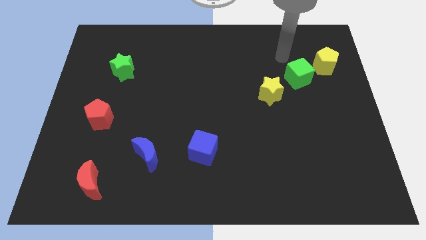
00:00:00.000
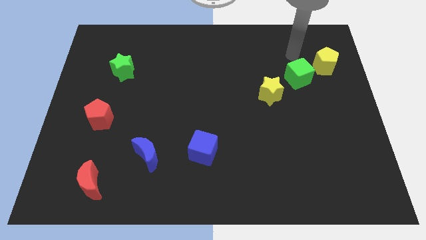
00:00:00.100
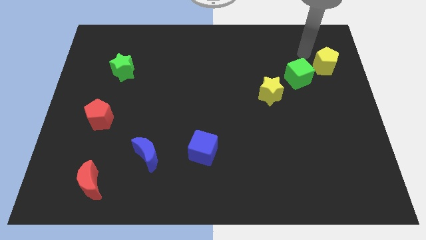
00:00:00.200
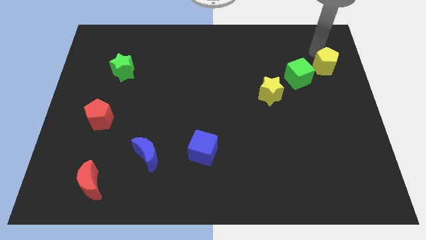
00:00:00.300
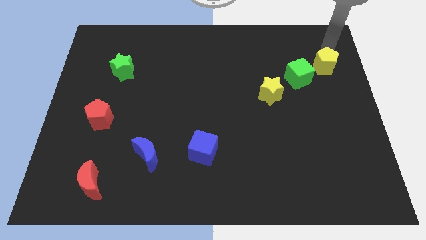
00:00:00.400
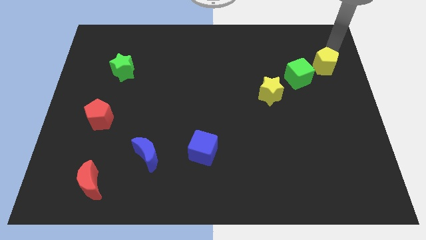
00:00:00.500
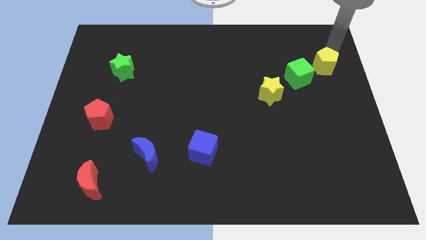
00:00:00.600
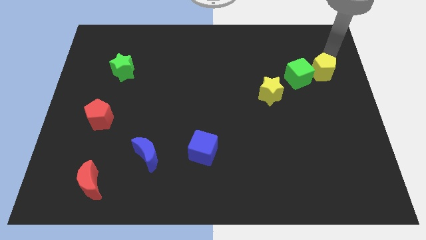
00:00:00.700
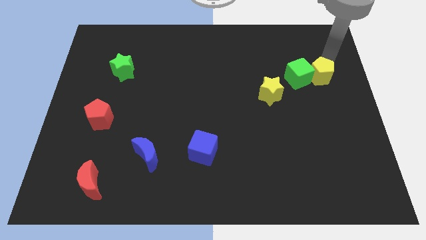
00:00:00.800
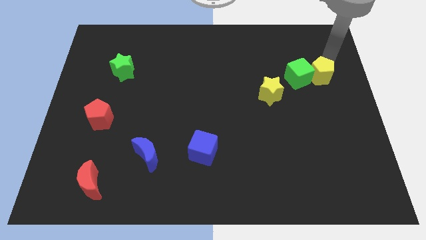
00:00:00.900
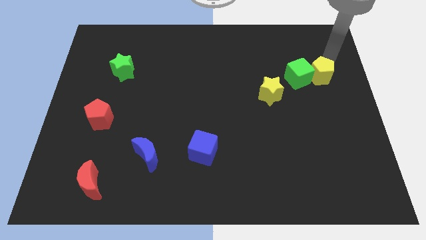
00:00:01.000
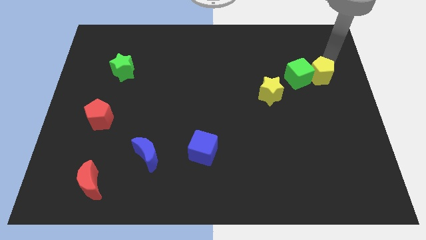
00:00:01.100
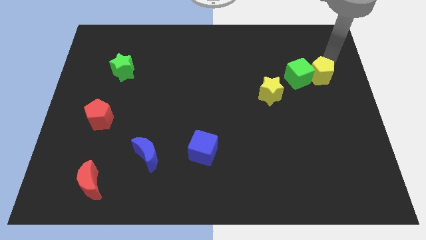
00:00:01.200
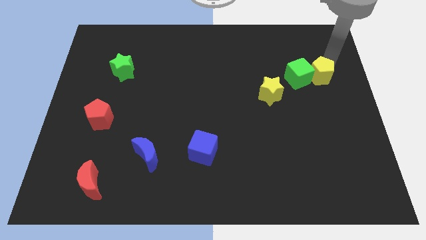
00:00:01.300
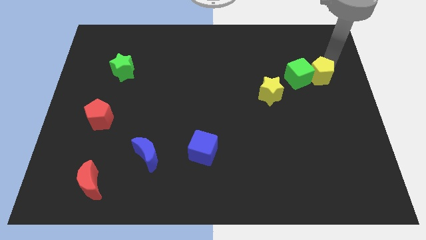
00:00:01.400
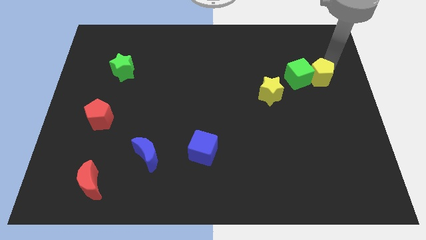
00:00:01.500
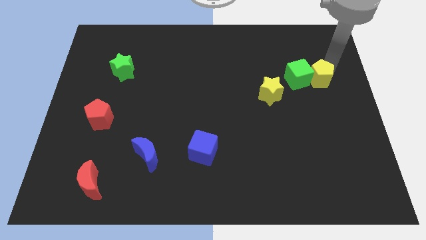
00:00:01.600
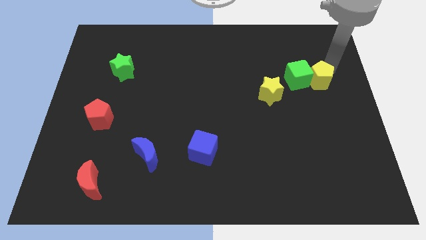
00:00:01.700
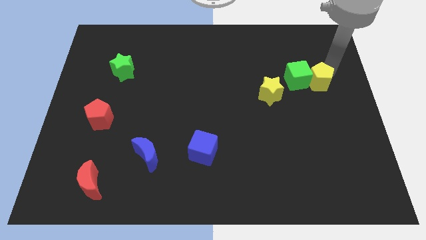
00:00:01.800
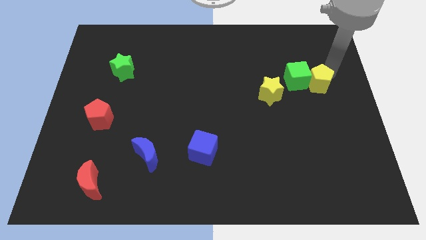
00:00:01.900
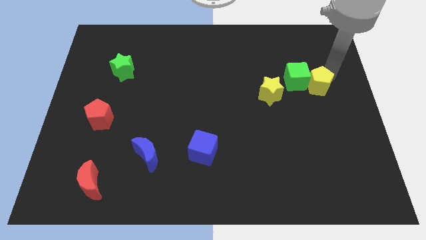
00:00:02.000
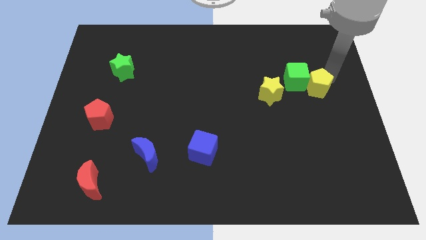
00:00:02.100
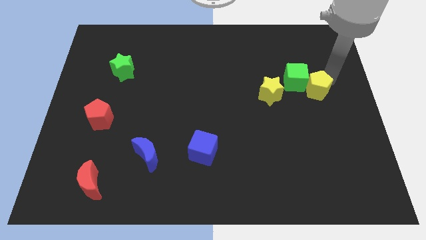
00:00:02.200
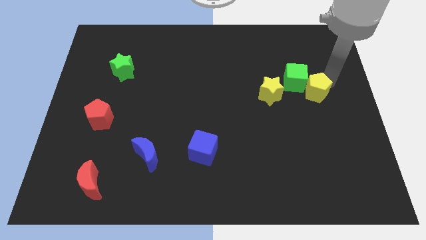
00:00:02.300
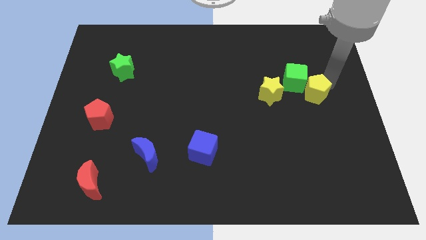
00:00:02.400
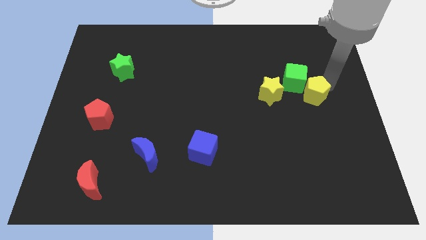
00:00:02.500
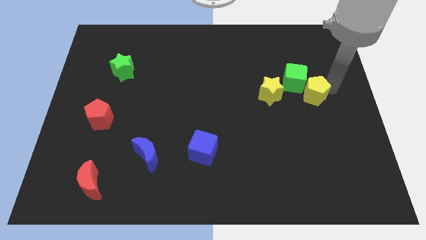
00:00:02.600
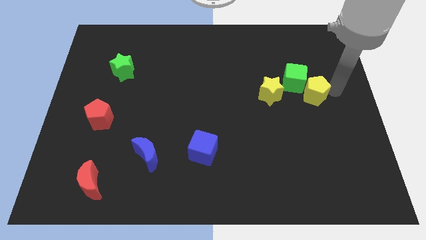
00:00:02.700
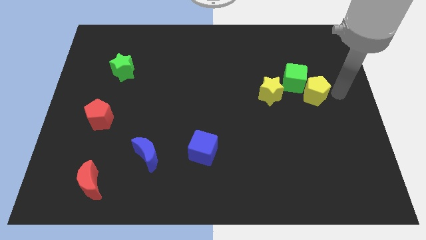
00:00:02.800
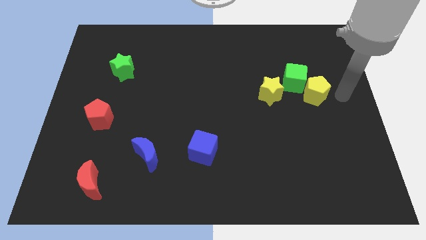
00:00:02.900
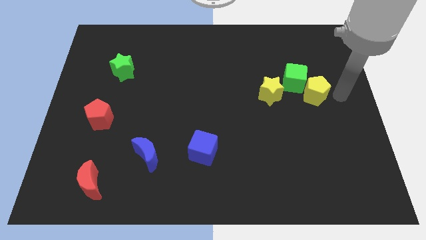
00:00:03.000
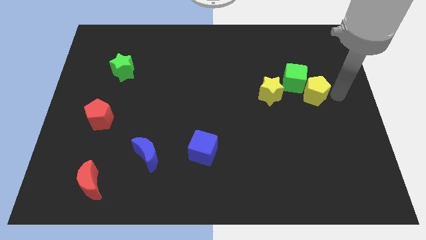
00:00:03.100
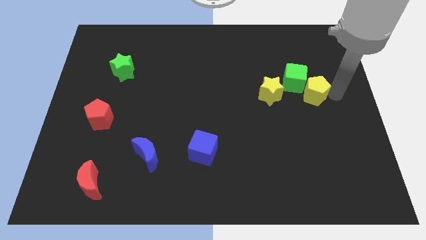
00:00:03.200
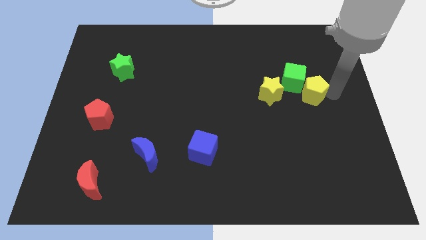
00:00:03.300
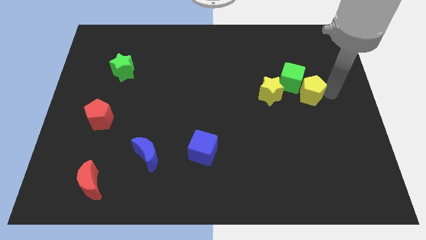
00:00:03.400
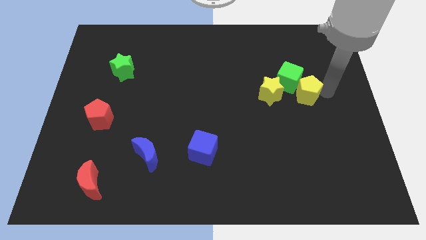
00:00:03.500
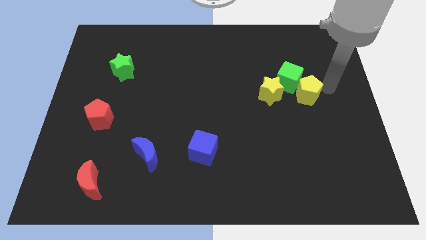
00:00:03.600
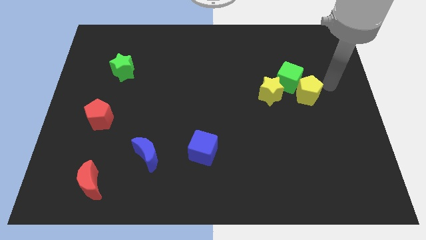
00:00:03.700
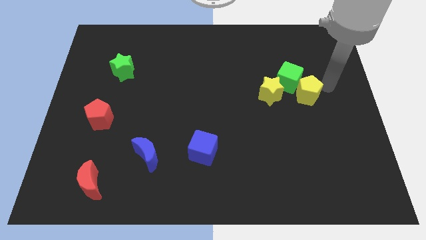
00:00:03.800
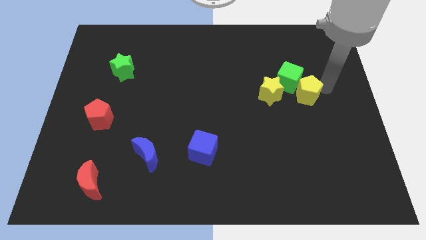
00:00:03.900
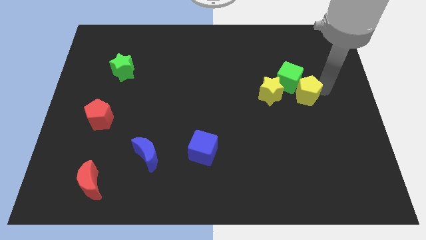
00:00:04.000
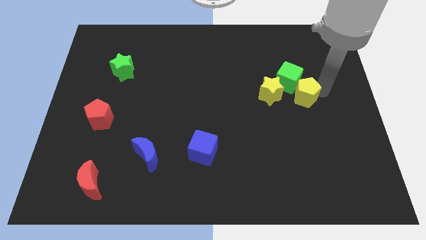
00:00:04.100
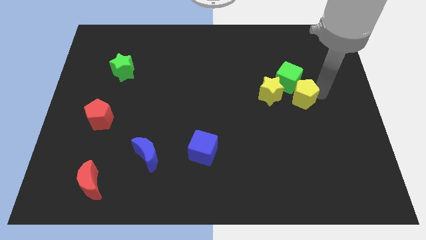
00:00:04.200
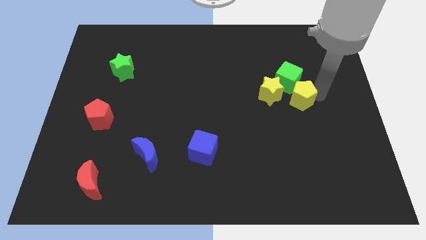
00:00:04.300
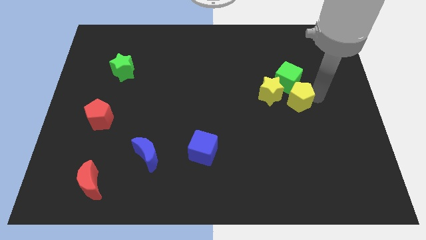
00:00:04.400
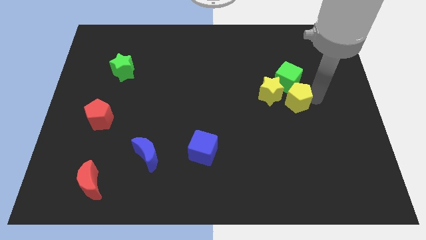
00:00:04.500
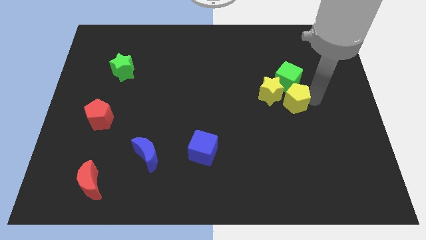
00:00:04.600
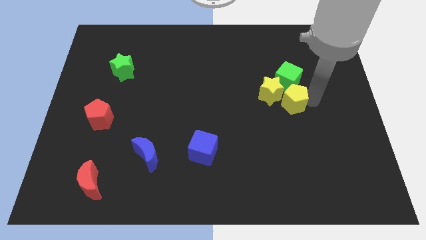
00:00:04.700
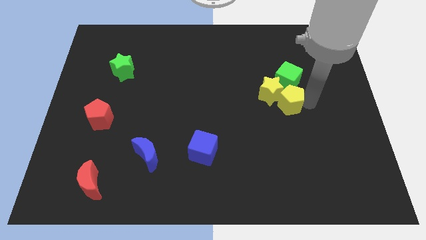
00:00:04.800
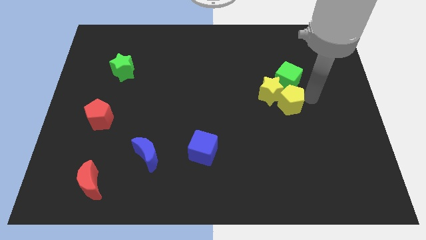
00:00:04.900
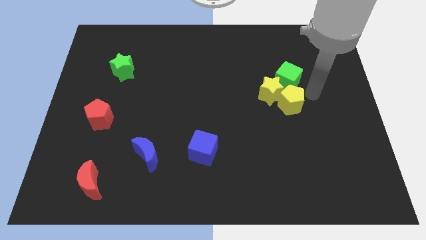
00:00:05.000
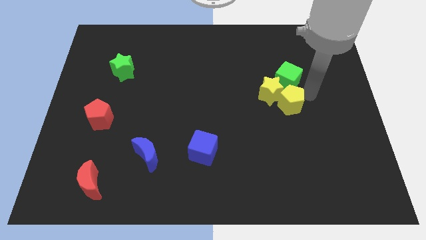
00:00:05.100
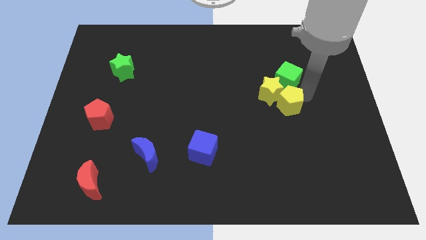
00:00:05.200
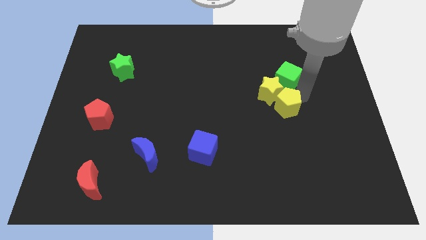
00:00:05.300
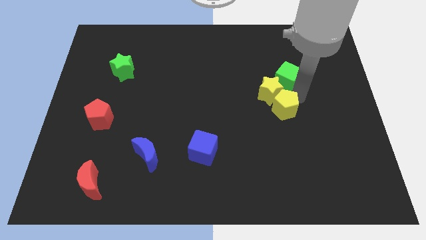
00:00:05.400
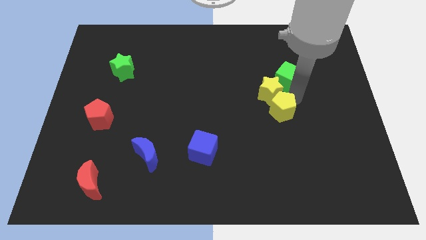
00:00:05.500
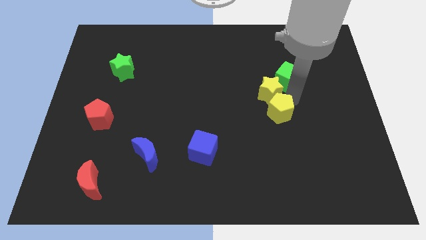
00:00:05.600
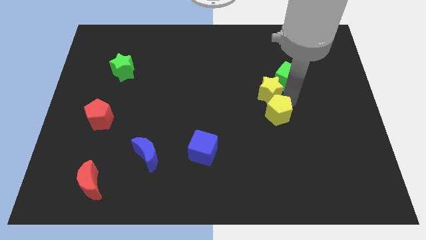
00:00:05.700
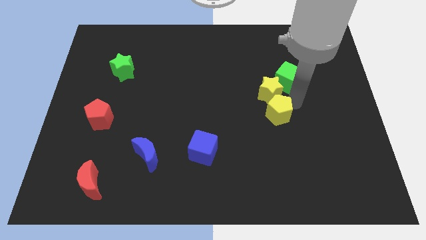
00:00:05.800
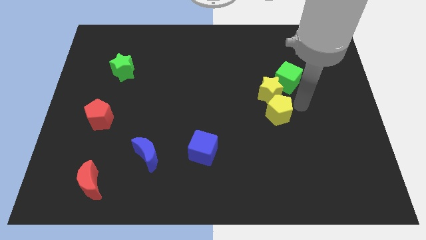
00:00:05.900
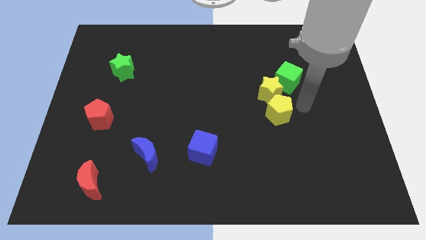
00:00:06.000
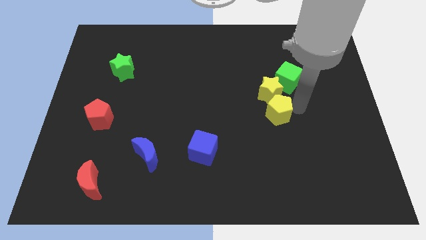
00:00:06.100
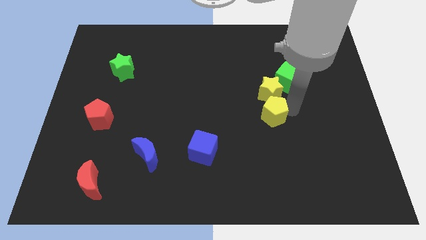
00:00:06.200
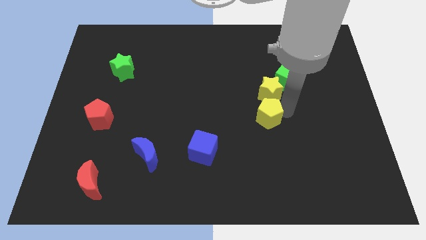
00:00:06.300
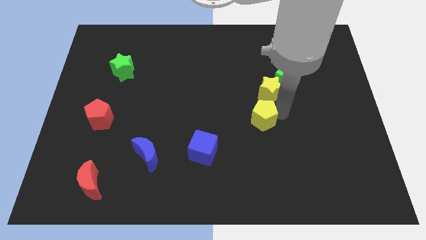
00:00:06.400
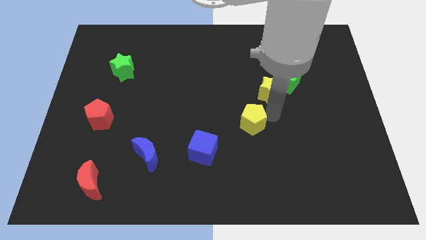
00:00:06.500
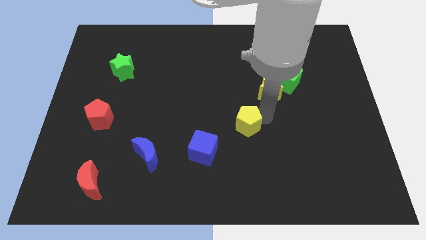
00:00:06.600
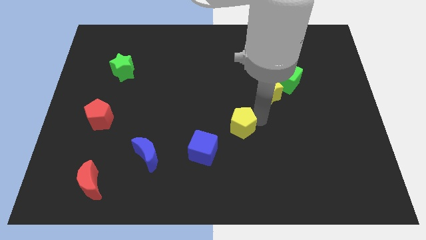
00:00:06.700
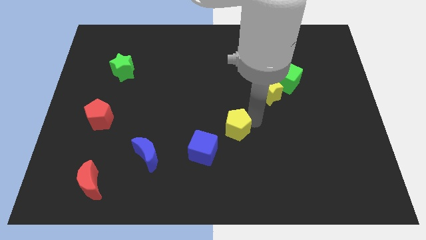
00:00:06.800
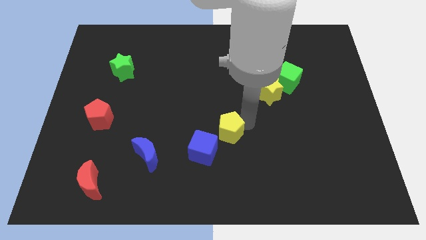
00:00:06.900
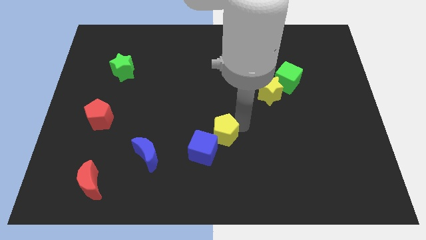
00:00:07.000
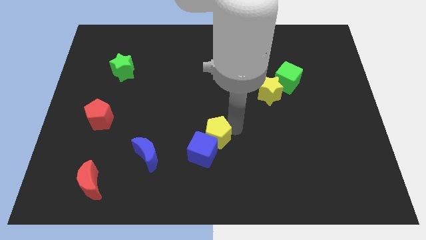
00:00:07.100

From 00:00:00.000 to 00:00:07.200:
slide the yellow pentagon towards the blue cube

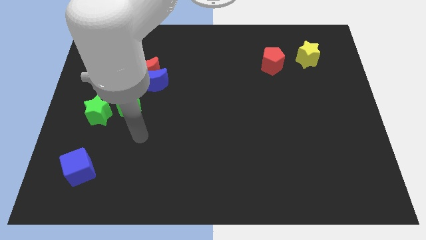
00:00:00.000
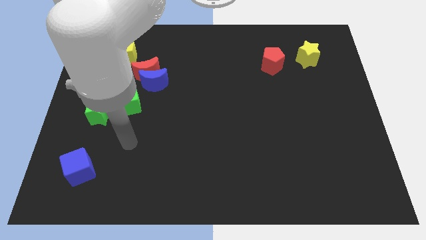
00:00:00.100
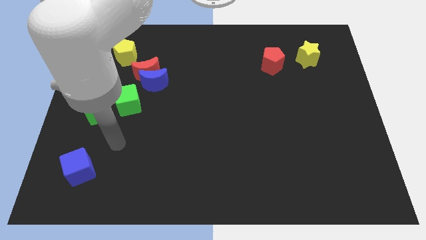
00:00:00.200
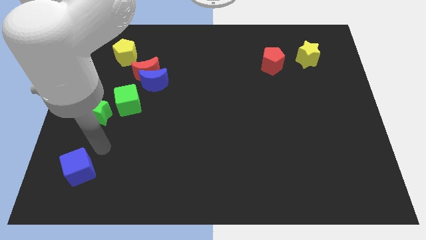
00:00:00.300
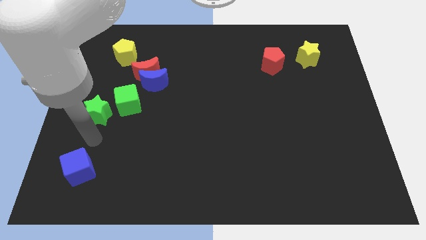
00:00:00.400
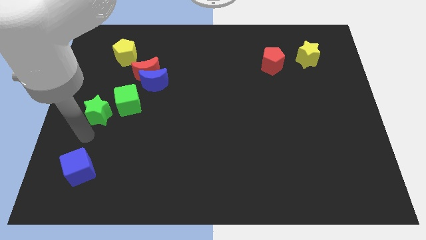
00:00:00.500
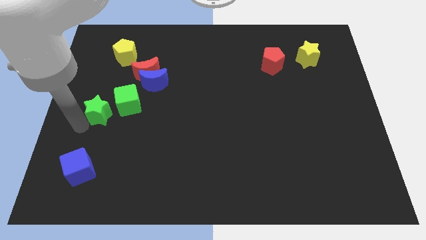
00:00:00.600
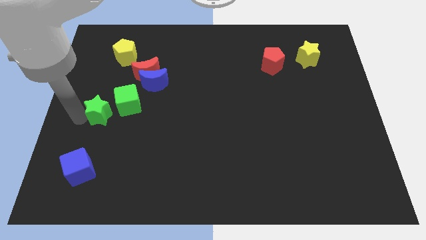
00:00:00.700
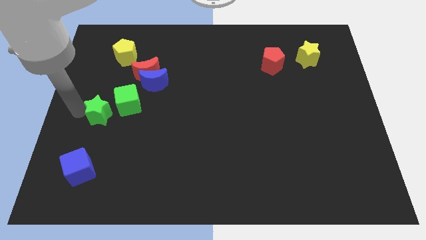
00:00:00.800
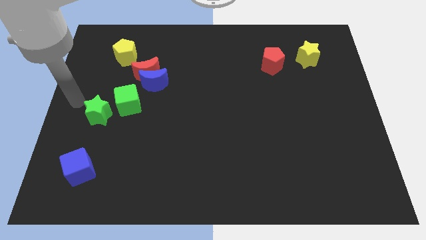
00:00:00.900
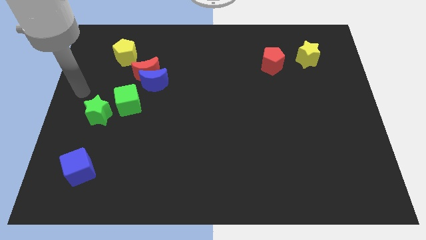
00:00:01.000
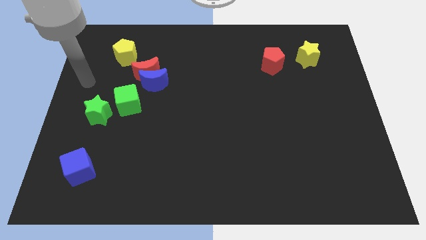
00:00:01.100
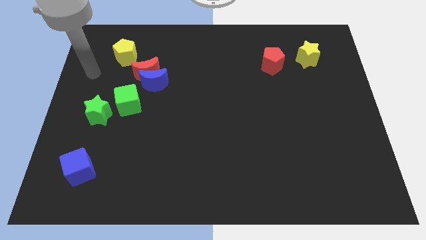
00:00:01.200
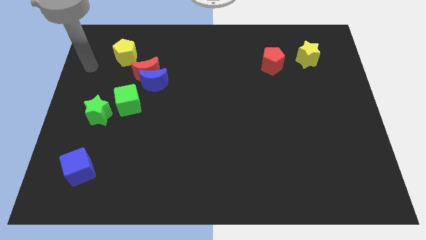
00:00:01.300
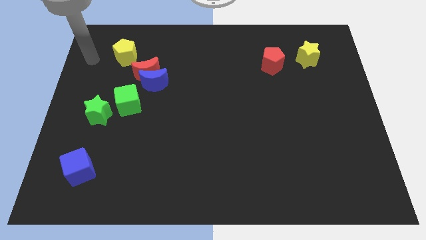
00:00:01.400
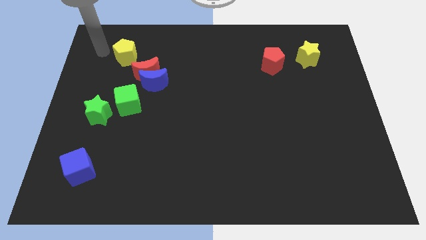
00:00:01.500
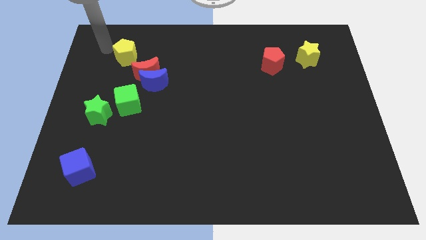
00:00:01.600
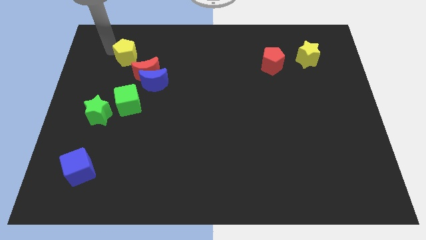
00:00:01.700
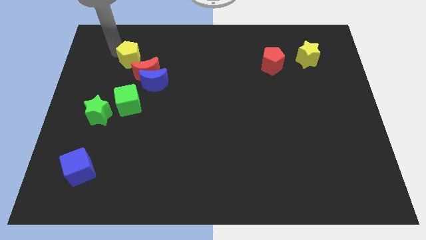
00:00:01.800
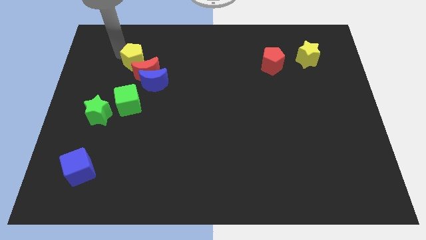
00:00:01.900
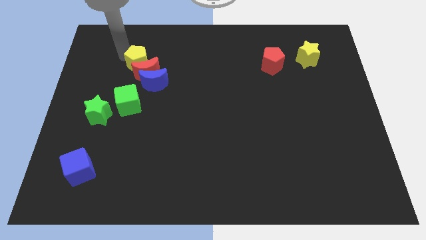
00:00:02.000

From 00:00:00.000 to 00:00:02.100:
put the yellow pentagon to the red moon
